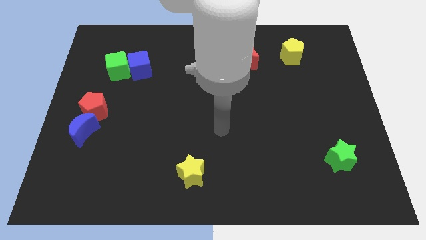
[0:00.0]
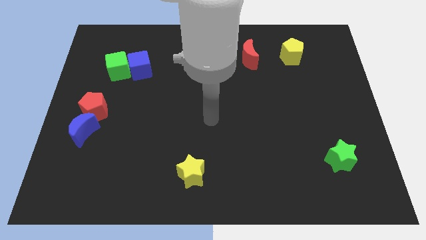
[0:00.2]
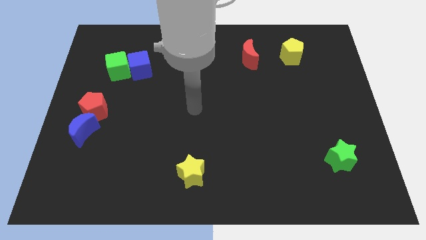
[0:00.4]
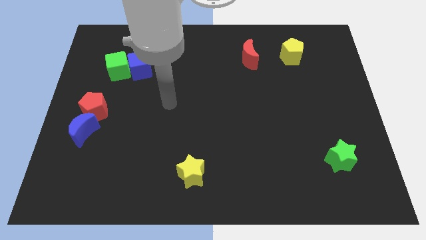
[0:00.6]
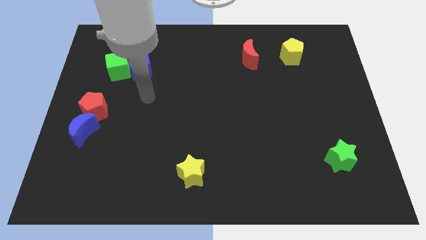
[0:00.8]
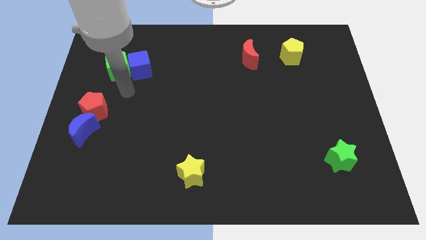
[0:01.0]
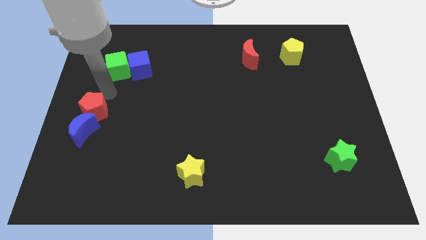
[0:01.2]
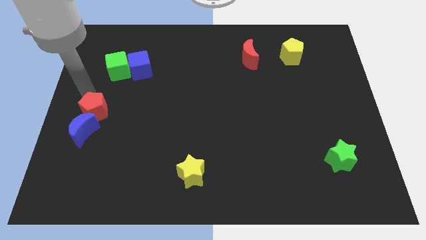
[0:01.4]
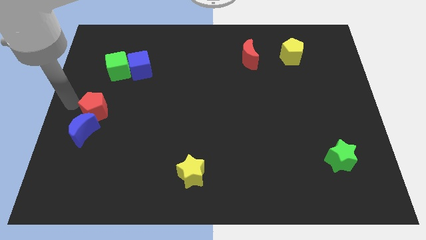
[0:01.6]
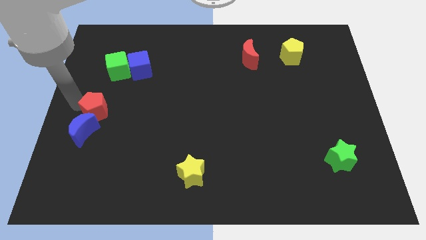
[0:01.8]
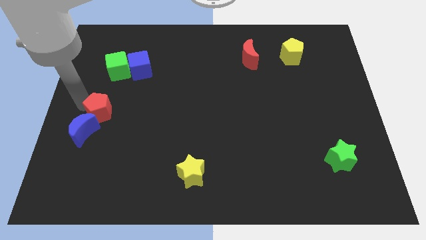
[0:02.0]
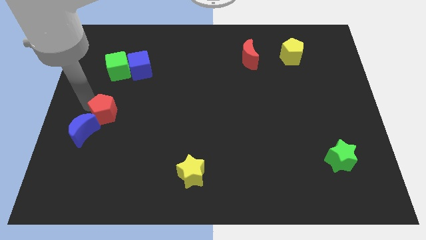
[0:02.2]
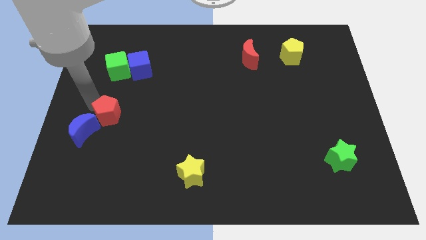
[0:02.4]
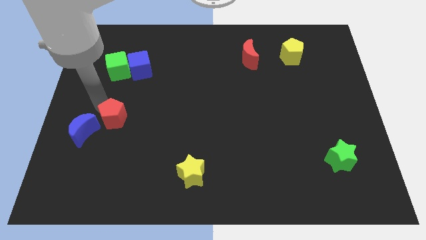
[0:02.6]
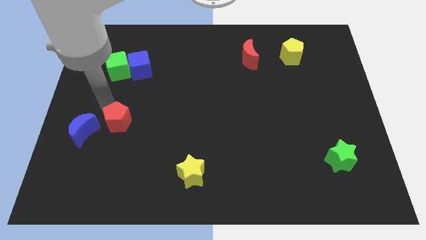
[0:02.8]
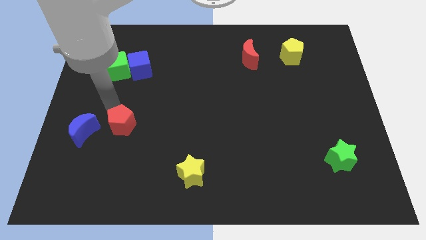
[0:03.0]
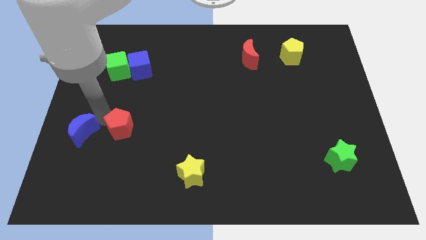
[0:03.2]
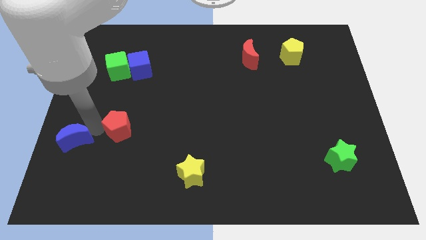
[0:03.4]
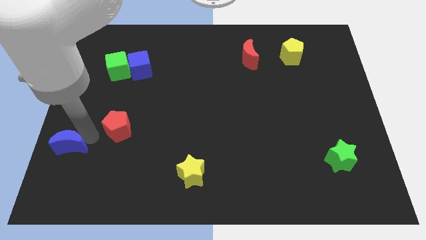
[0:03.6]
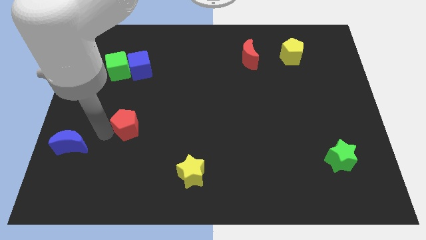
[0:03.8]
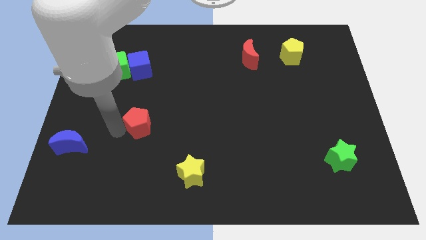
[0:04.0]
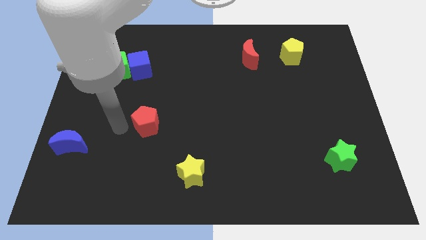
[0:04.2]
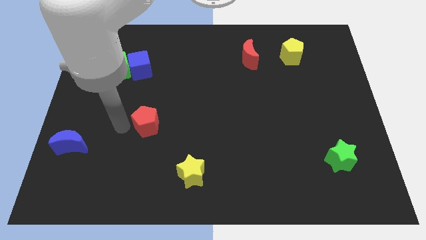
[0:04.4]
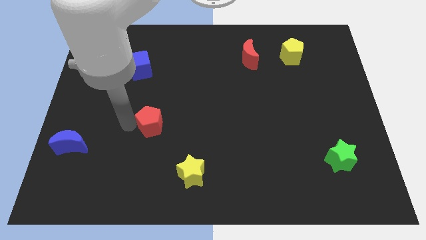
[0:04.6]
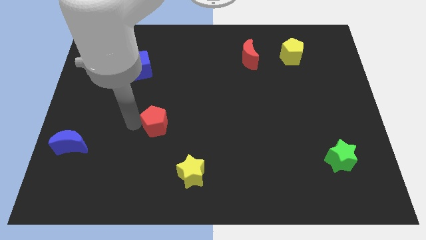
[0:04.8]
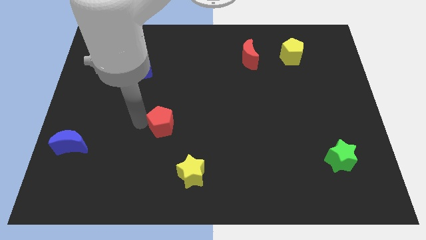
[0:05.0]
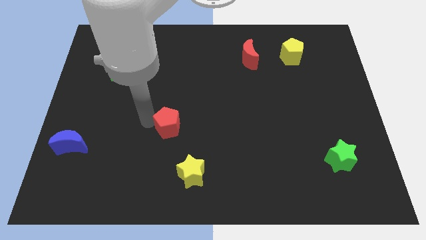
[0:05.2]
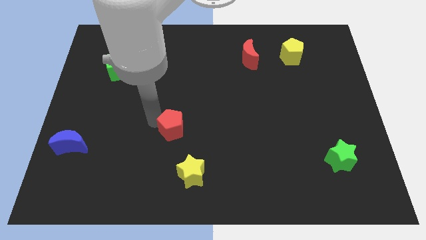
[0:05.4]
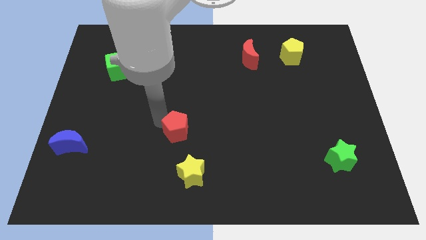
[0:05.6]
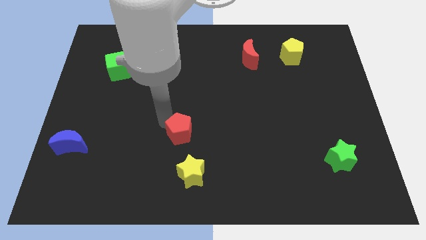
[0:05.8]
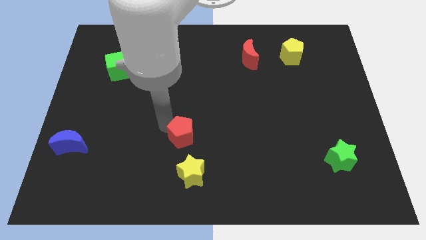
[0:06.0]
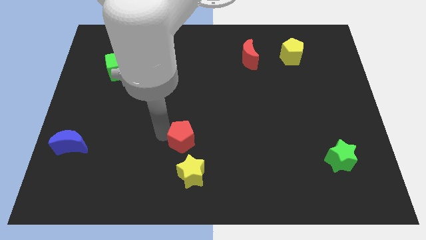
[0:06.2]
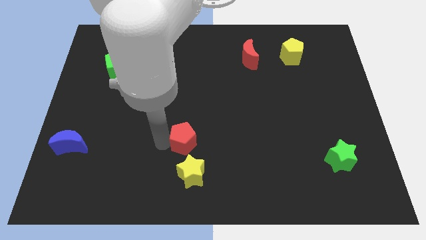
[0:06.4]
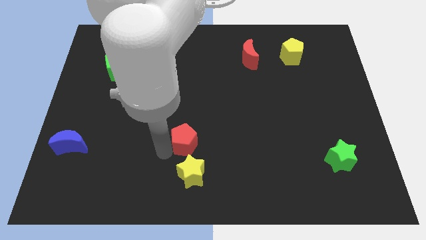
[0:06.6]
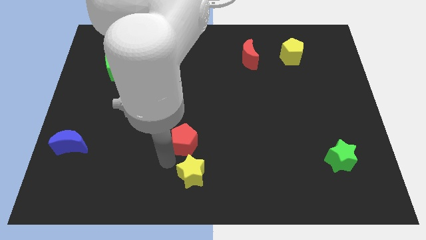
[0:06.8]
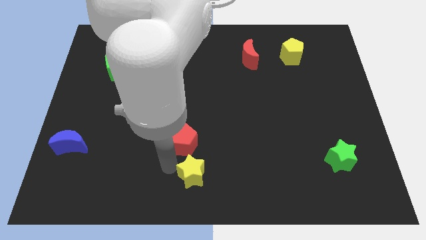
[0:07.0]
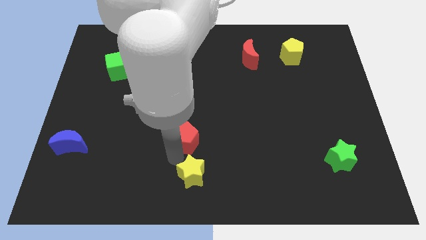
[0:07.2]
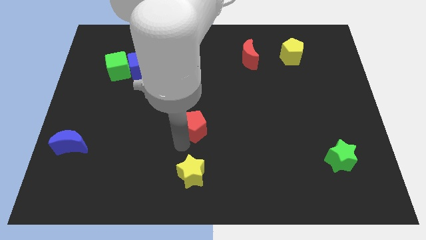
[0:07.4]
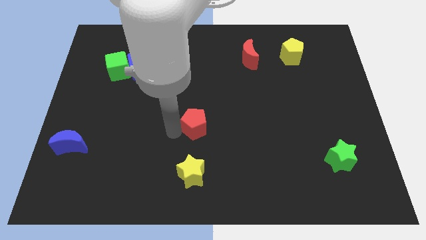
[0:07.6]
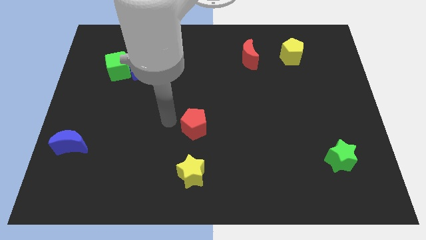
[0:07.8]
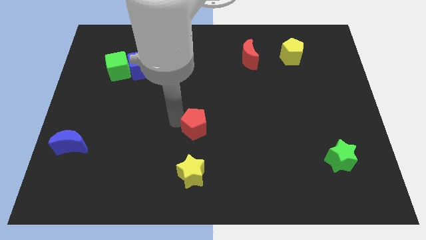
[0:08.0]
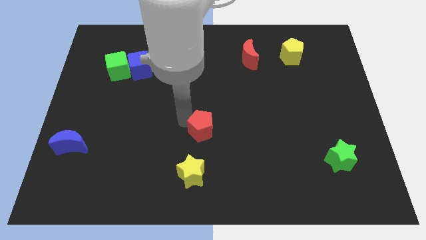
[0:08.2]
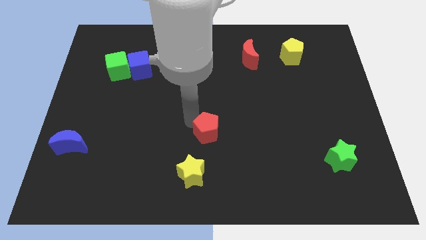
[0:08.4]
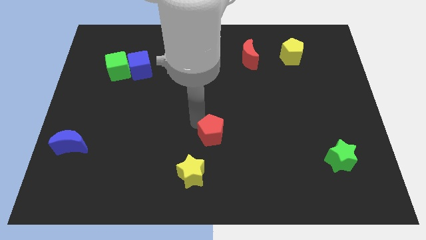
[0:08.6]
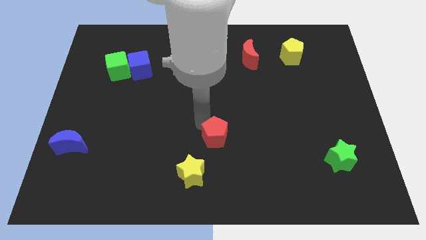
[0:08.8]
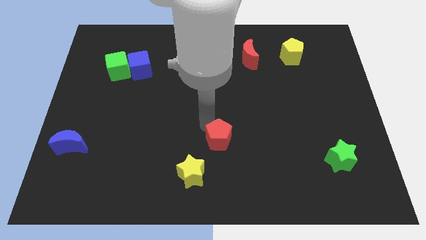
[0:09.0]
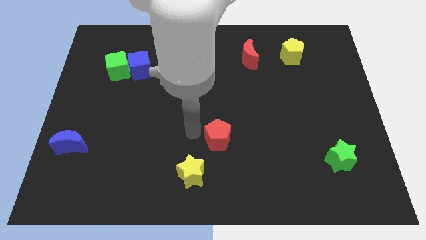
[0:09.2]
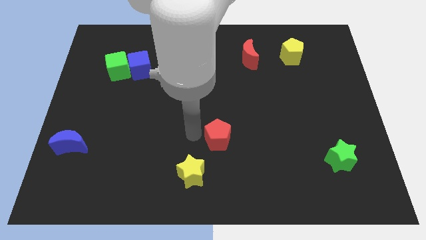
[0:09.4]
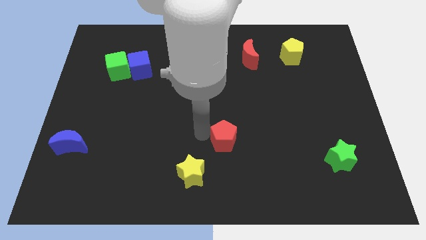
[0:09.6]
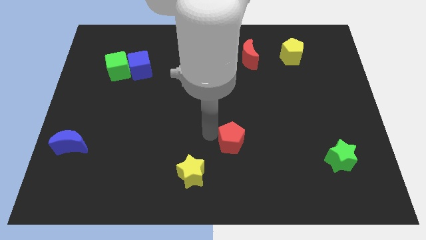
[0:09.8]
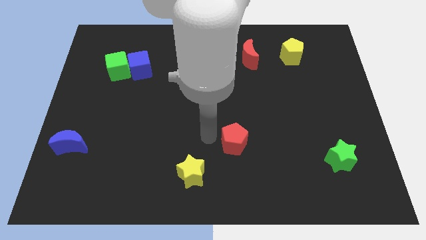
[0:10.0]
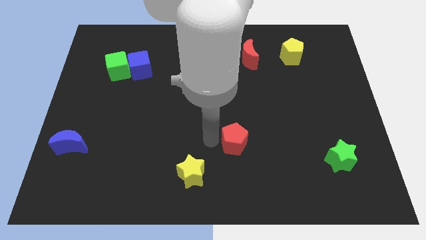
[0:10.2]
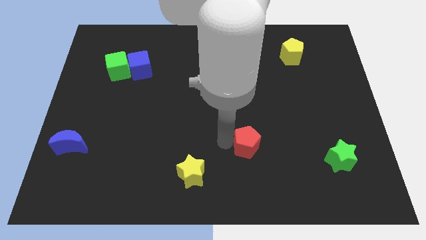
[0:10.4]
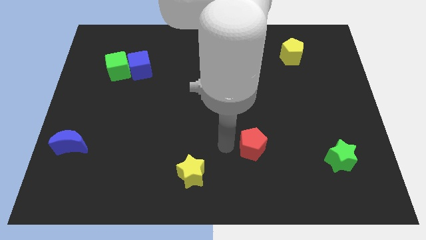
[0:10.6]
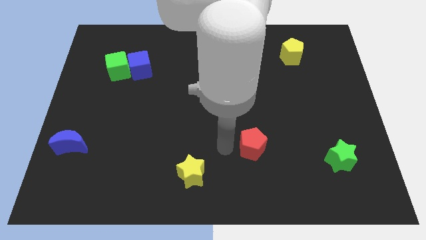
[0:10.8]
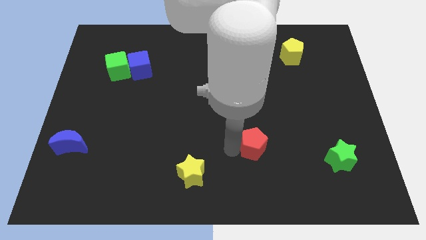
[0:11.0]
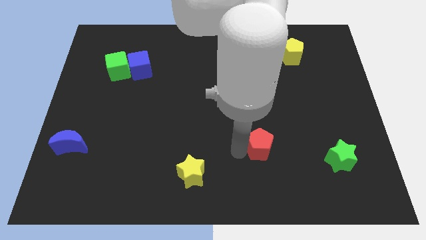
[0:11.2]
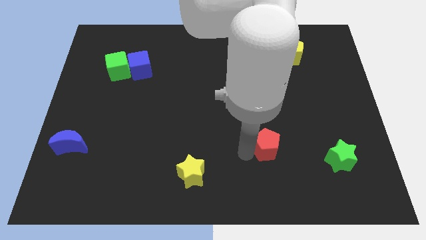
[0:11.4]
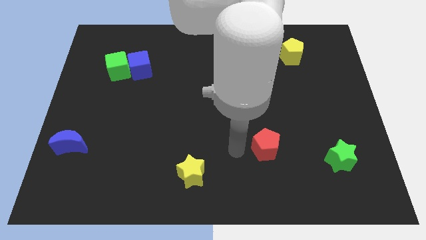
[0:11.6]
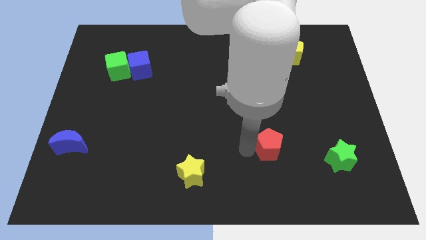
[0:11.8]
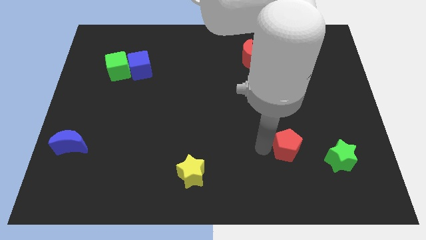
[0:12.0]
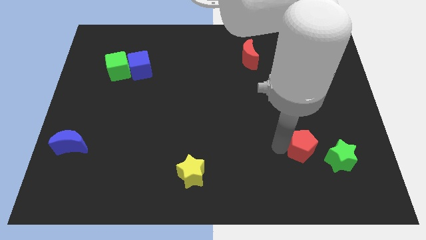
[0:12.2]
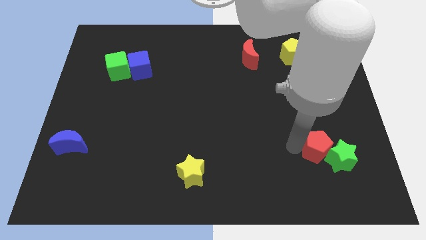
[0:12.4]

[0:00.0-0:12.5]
push the red pentagon close to the green star

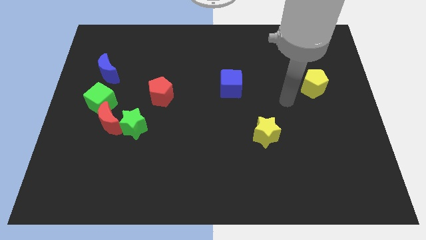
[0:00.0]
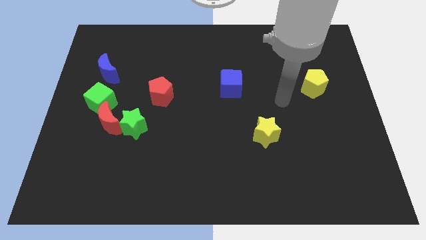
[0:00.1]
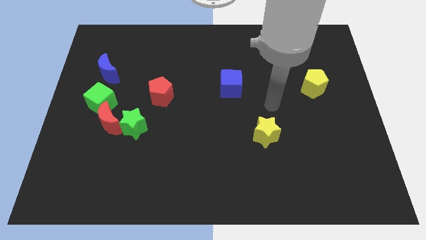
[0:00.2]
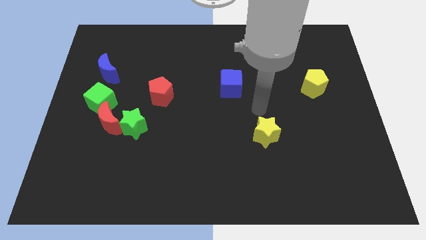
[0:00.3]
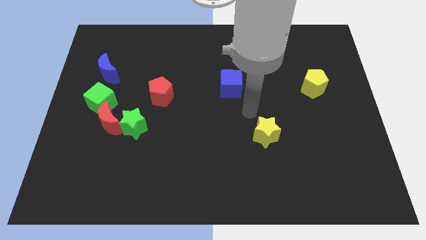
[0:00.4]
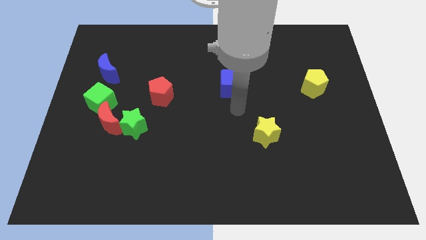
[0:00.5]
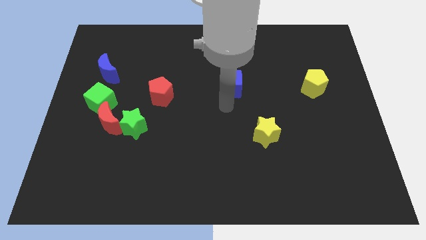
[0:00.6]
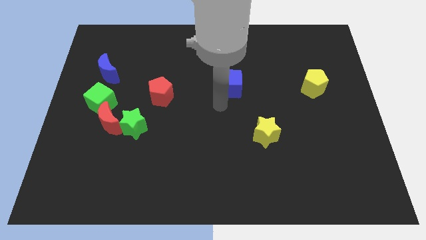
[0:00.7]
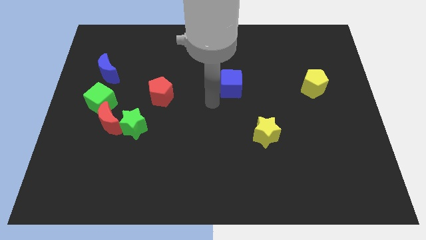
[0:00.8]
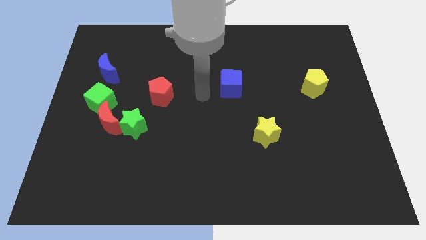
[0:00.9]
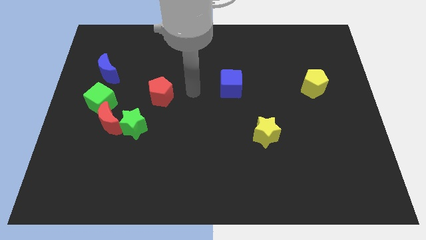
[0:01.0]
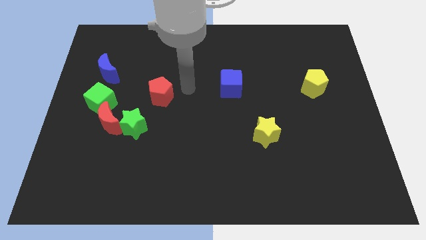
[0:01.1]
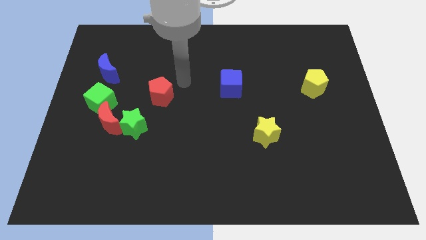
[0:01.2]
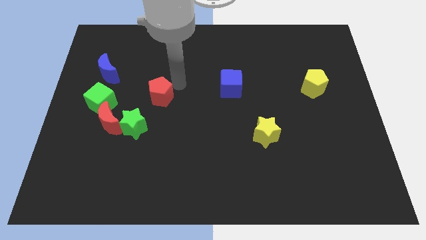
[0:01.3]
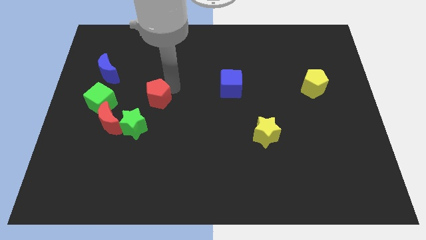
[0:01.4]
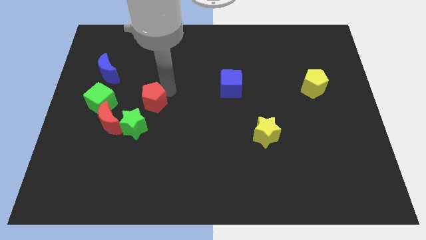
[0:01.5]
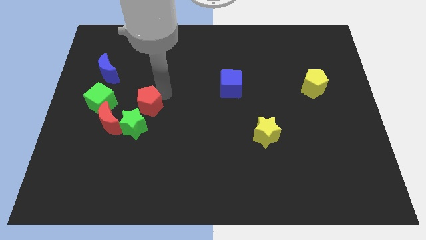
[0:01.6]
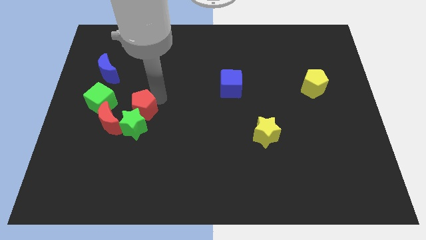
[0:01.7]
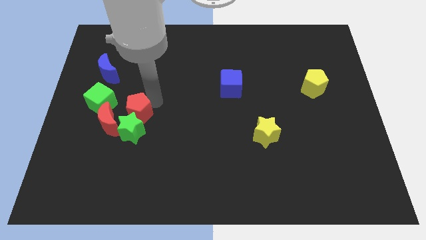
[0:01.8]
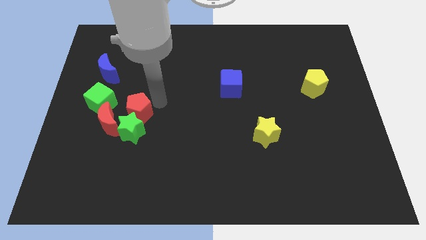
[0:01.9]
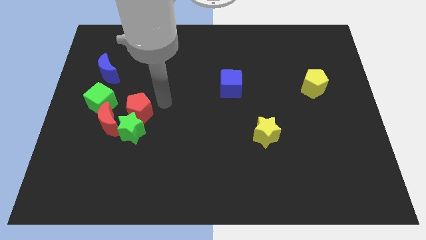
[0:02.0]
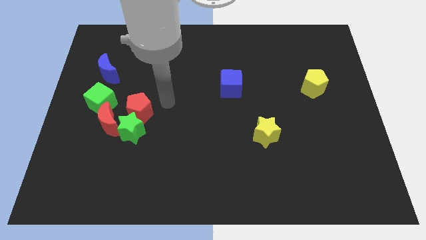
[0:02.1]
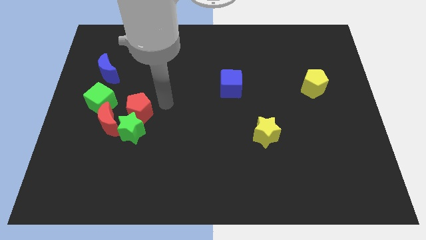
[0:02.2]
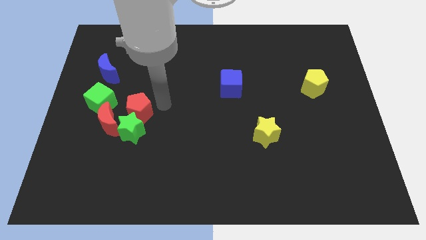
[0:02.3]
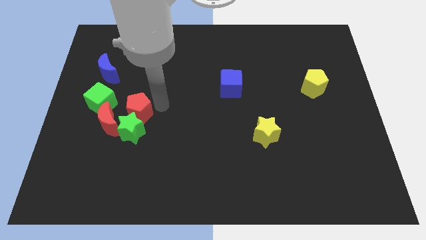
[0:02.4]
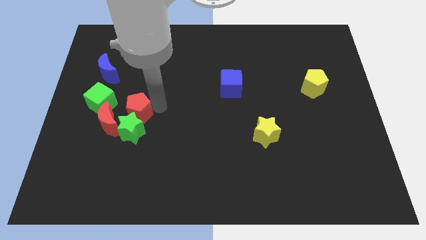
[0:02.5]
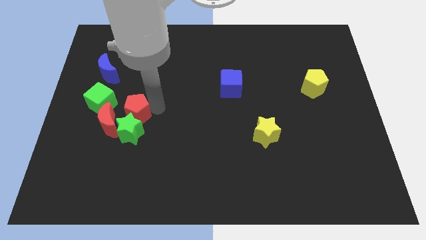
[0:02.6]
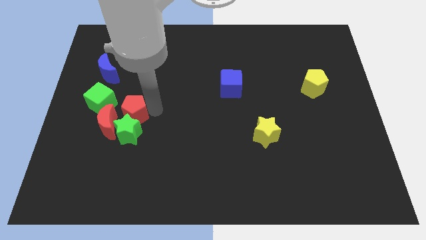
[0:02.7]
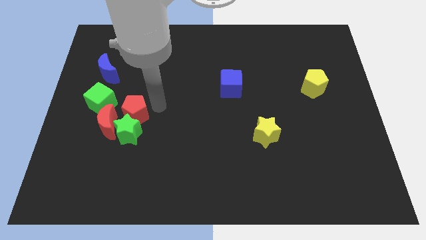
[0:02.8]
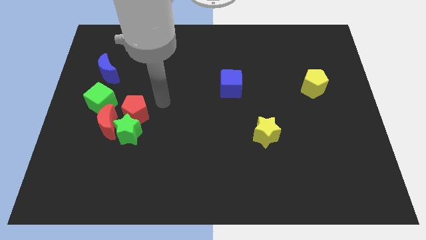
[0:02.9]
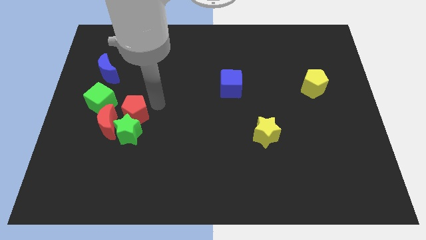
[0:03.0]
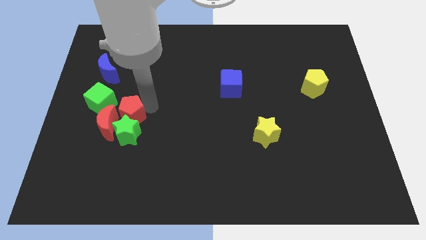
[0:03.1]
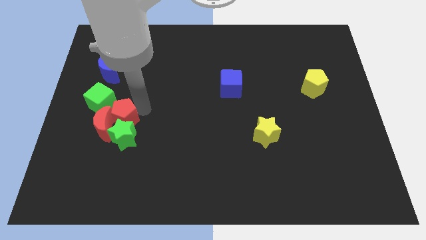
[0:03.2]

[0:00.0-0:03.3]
slide the red pentagon close to the red moon
